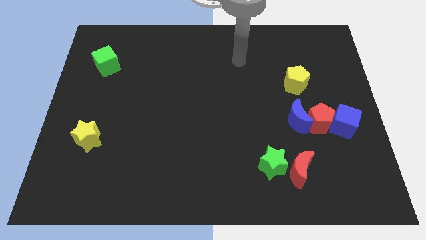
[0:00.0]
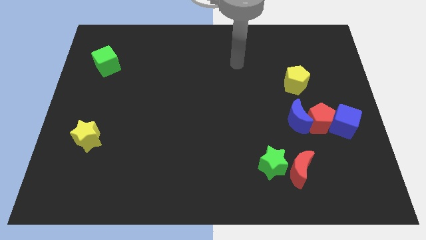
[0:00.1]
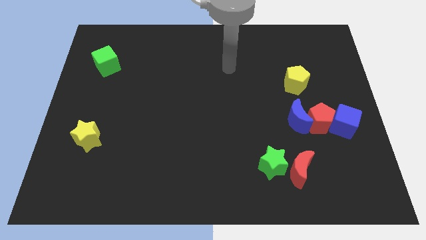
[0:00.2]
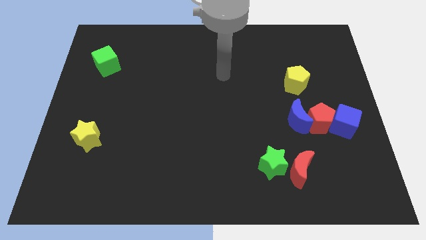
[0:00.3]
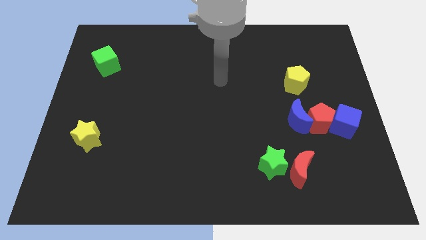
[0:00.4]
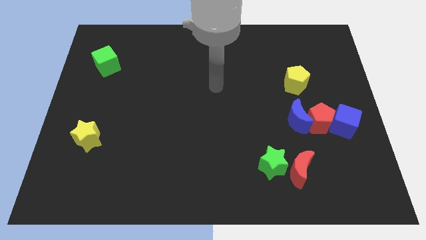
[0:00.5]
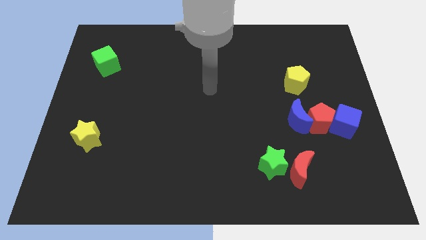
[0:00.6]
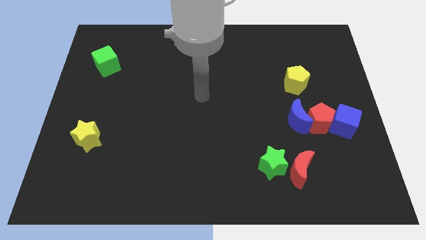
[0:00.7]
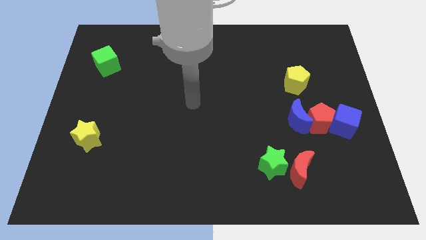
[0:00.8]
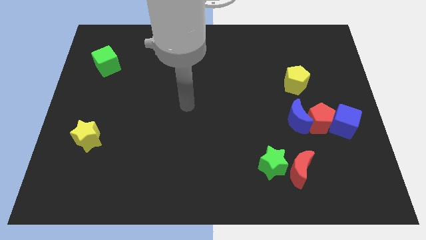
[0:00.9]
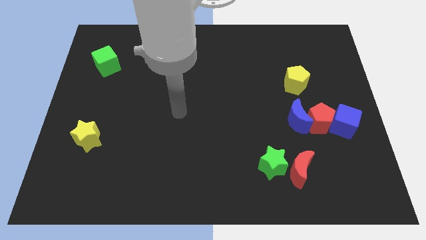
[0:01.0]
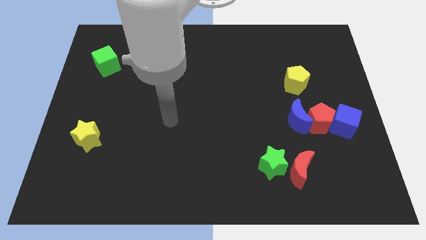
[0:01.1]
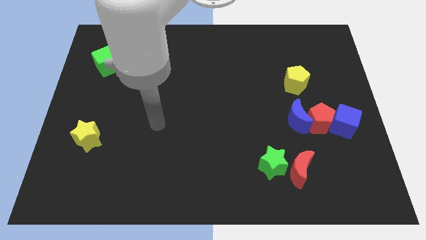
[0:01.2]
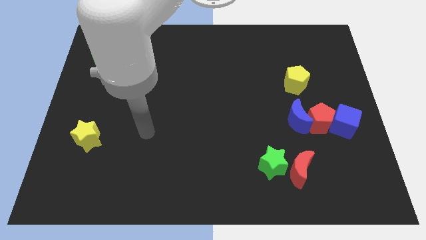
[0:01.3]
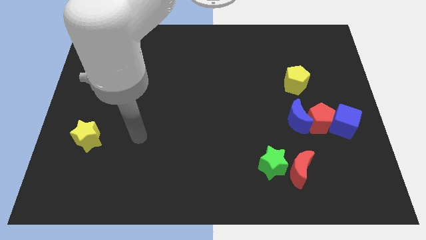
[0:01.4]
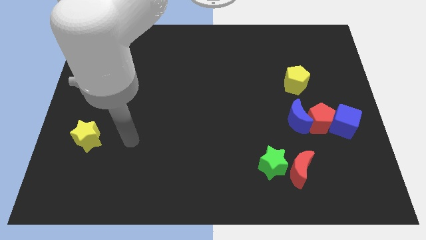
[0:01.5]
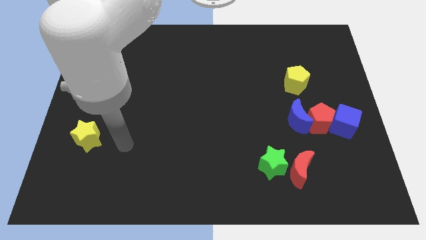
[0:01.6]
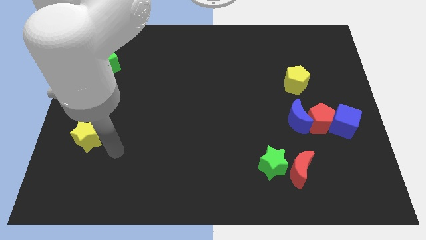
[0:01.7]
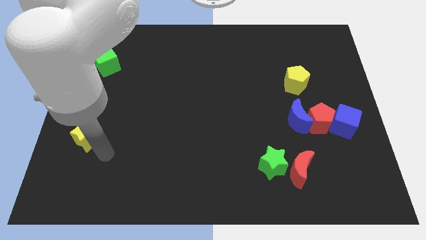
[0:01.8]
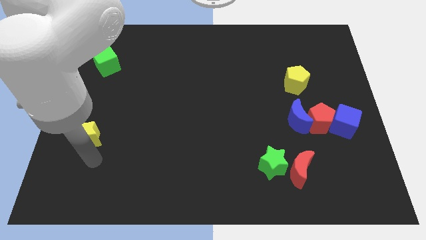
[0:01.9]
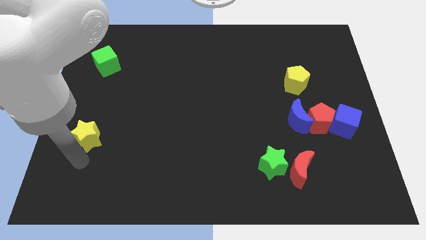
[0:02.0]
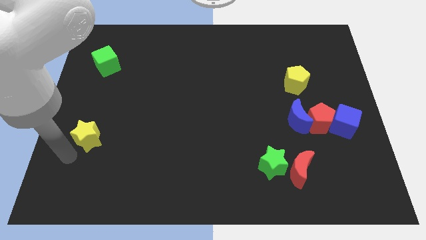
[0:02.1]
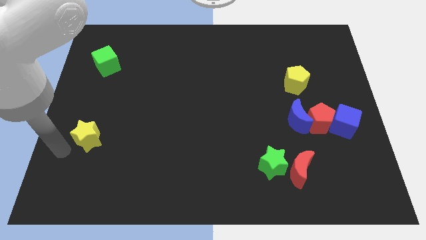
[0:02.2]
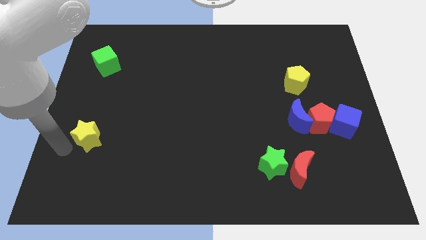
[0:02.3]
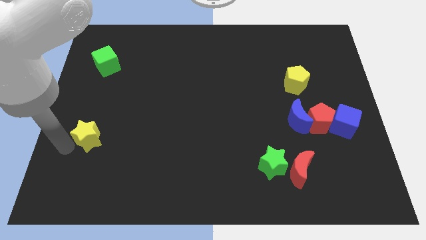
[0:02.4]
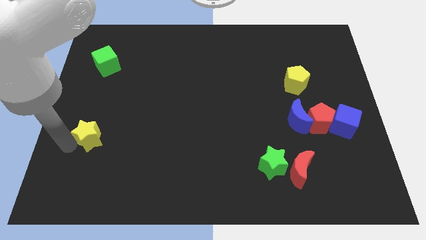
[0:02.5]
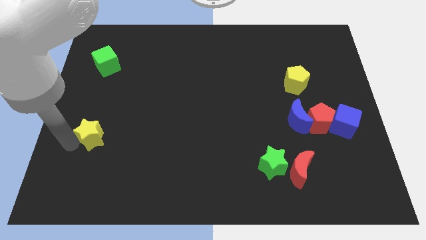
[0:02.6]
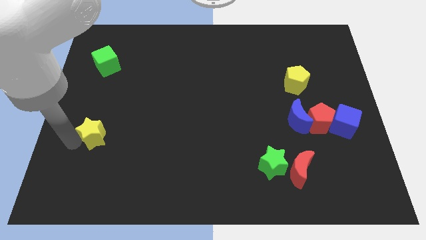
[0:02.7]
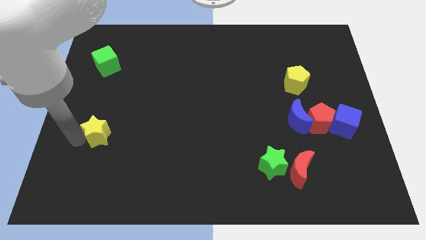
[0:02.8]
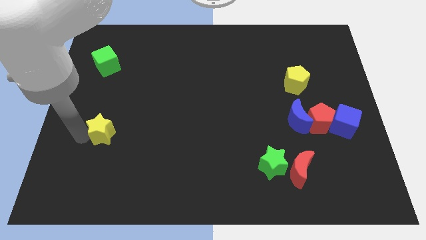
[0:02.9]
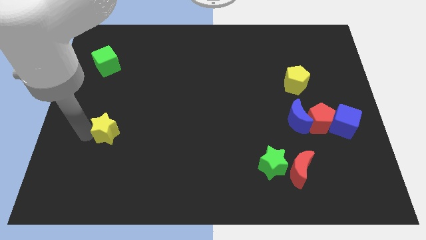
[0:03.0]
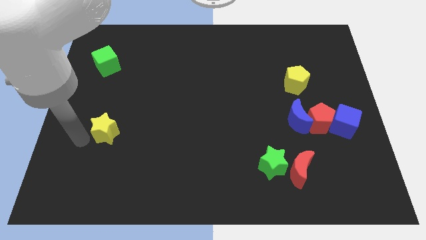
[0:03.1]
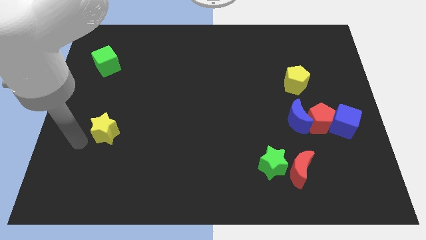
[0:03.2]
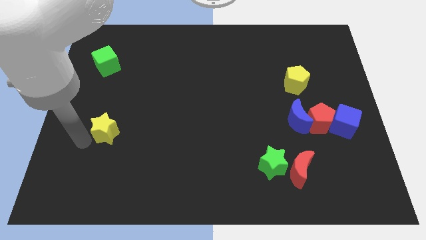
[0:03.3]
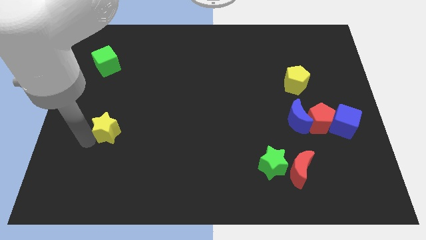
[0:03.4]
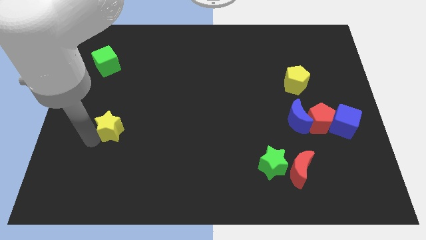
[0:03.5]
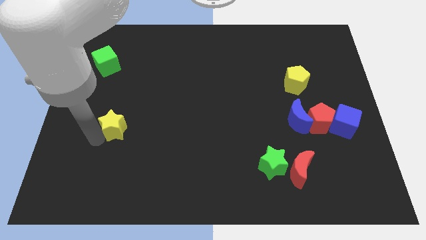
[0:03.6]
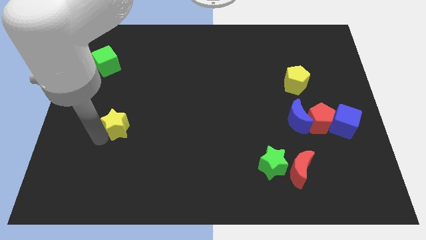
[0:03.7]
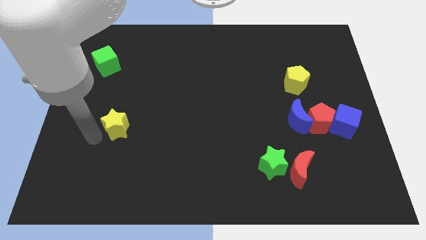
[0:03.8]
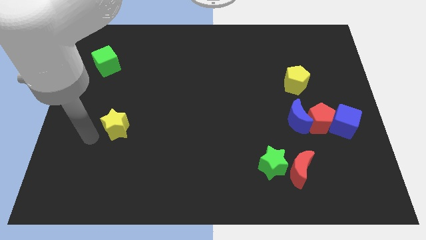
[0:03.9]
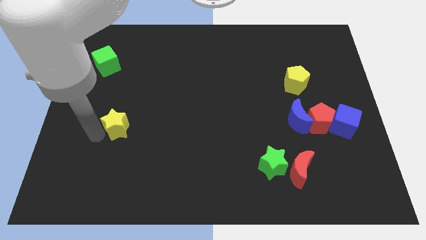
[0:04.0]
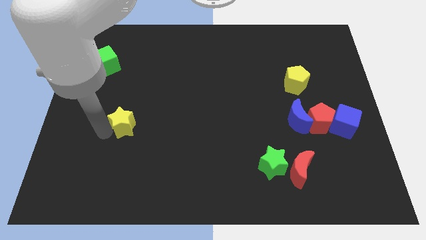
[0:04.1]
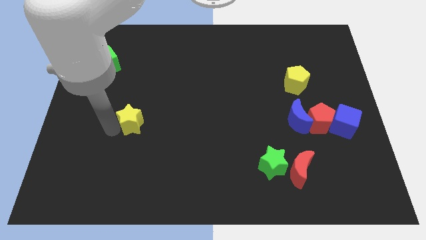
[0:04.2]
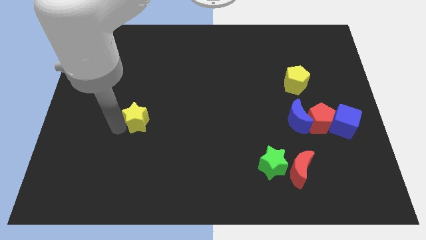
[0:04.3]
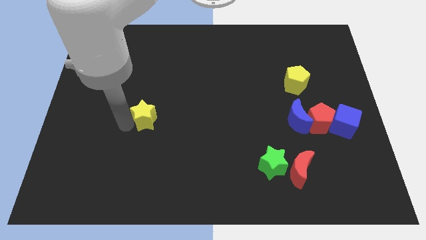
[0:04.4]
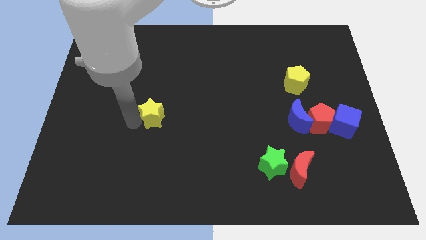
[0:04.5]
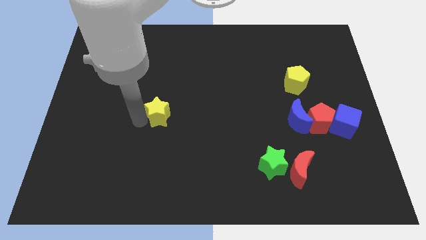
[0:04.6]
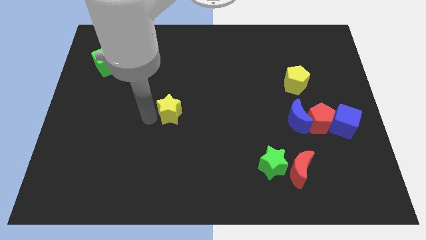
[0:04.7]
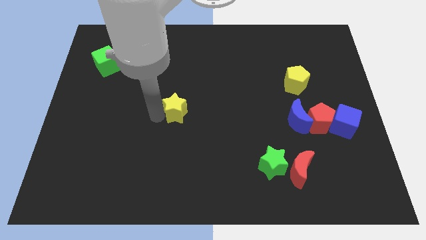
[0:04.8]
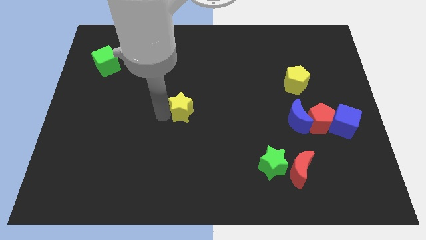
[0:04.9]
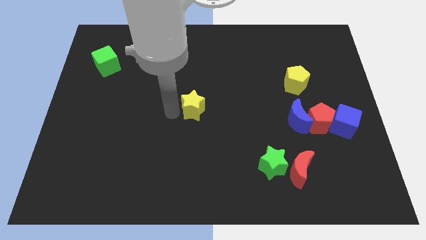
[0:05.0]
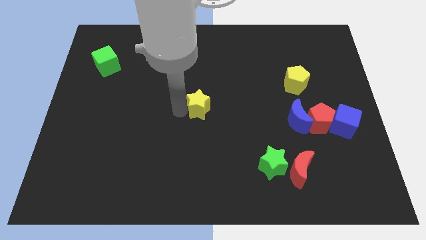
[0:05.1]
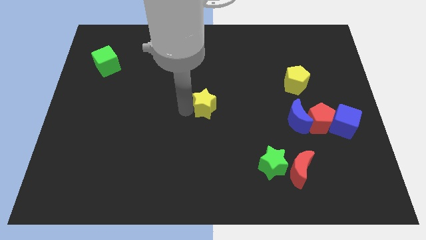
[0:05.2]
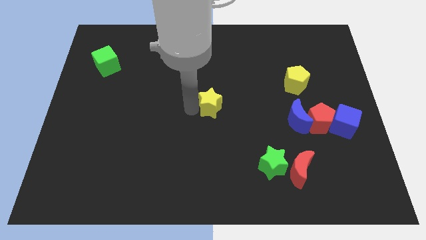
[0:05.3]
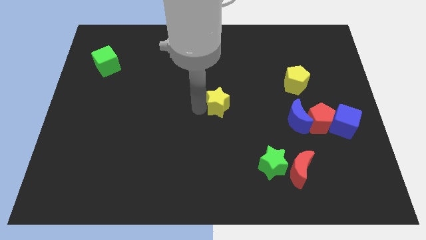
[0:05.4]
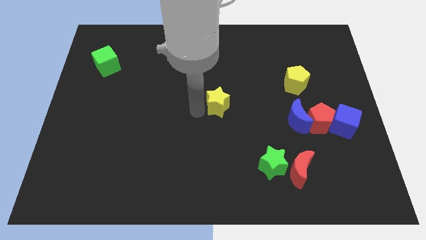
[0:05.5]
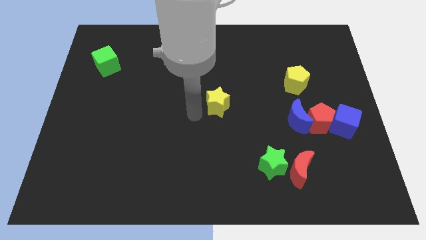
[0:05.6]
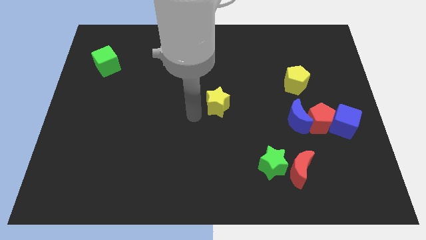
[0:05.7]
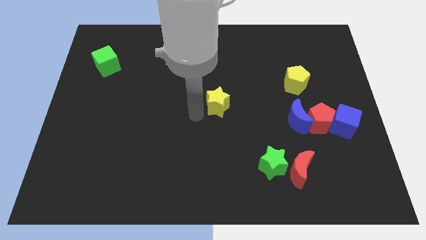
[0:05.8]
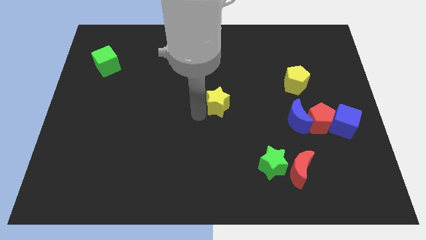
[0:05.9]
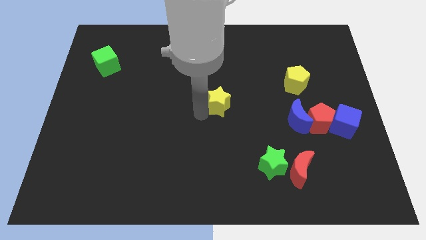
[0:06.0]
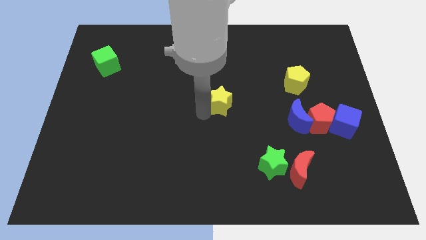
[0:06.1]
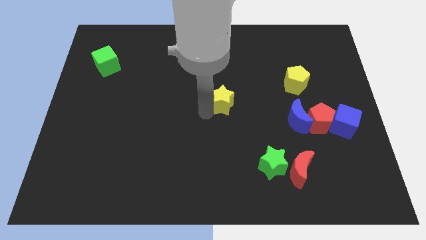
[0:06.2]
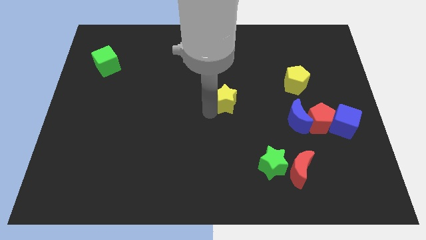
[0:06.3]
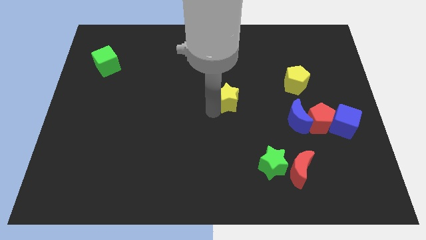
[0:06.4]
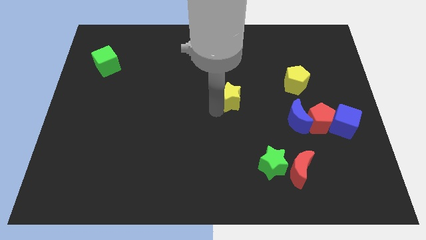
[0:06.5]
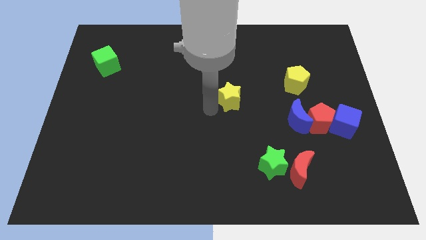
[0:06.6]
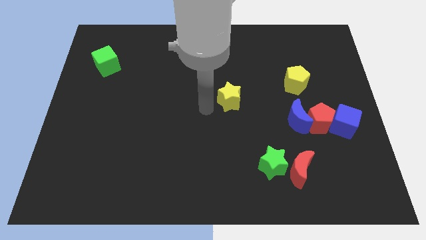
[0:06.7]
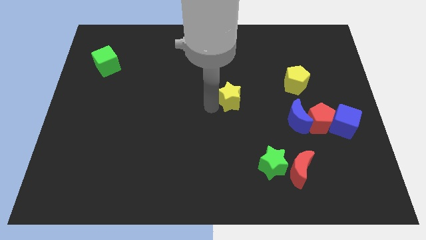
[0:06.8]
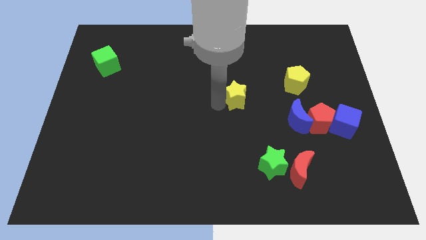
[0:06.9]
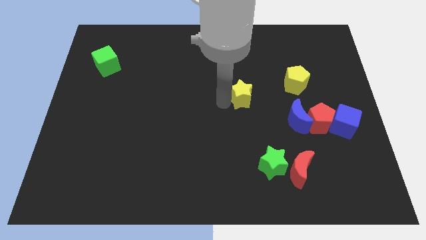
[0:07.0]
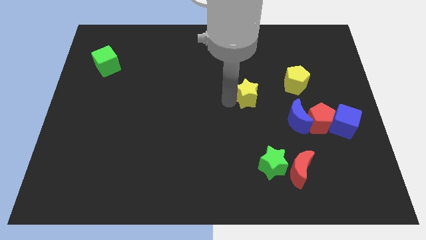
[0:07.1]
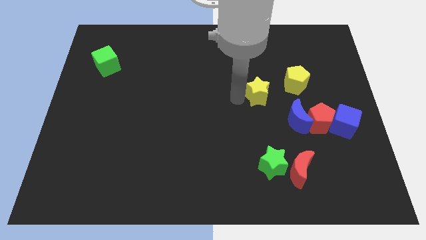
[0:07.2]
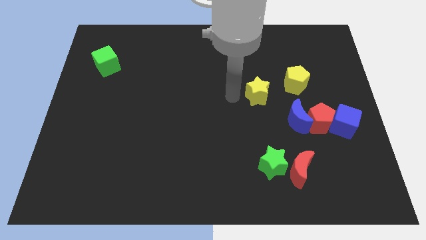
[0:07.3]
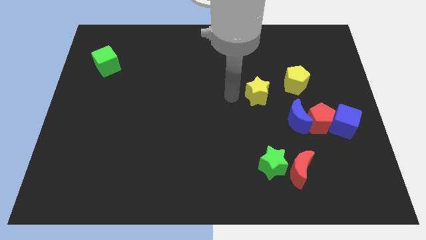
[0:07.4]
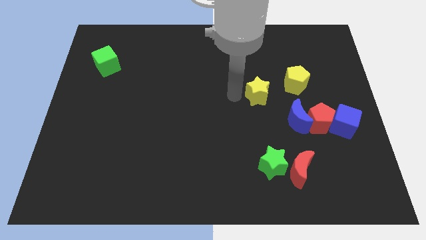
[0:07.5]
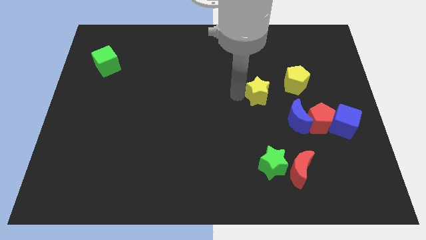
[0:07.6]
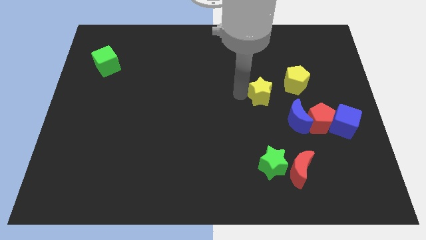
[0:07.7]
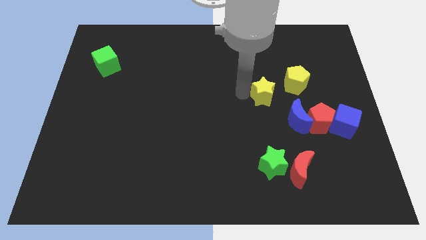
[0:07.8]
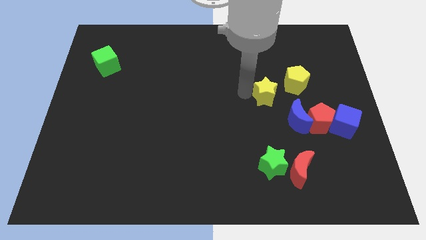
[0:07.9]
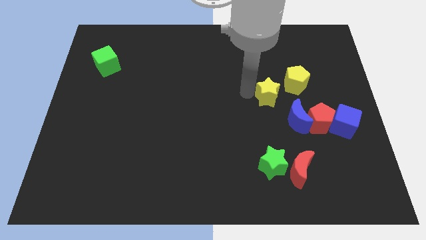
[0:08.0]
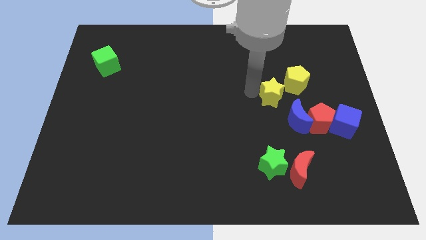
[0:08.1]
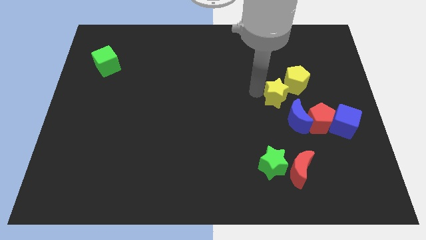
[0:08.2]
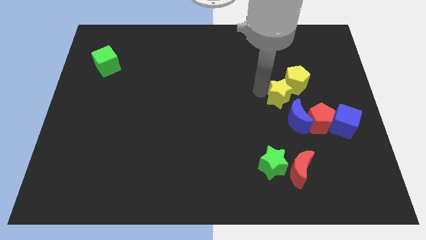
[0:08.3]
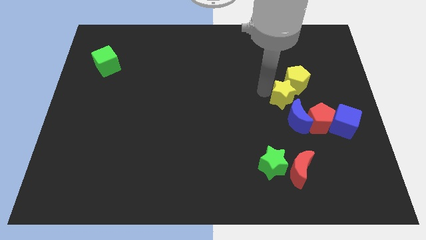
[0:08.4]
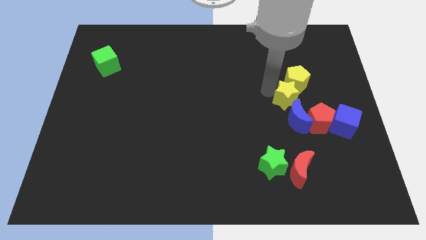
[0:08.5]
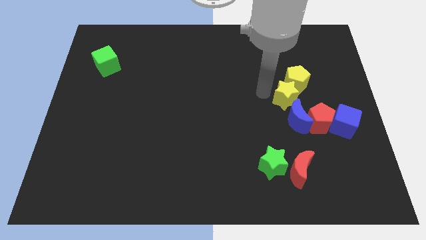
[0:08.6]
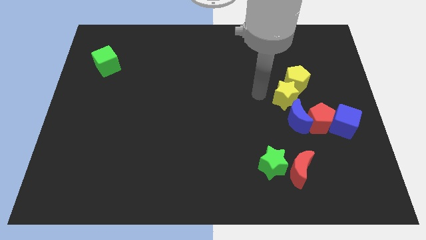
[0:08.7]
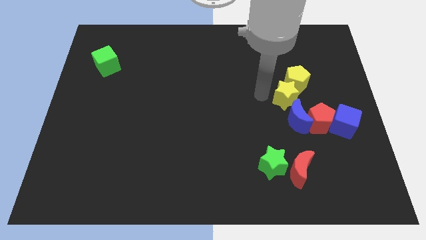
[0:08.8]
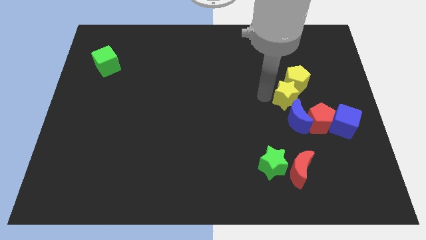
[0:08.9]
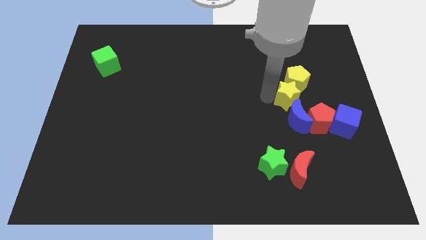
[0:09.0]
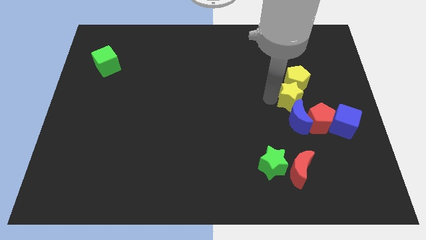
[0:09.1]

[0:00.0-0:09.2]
put the yellow star diagonally up and to the right of the blue moon
